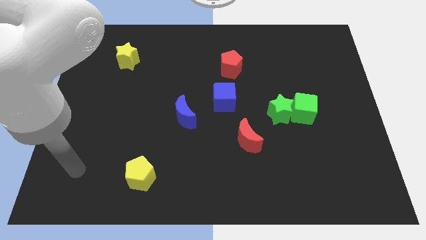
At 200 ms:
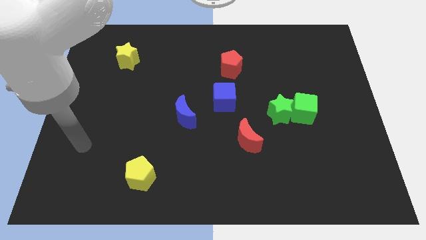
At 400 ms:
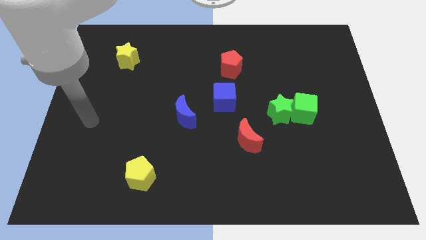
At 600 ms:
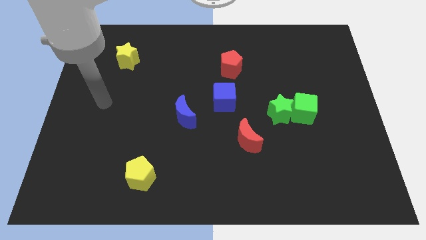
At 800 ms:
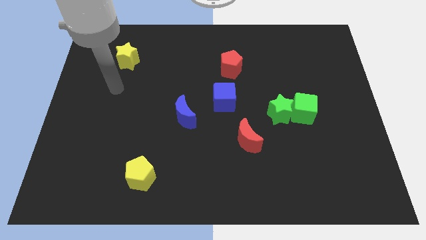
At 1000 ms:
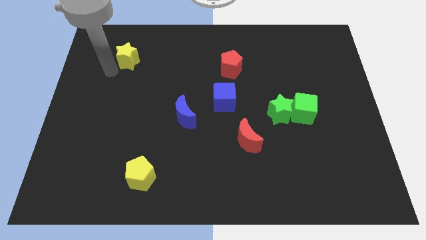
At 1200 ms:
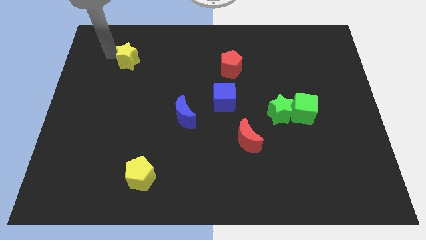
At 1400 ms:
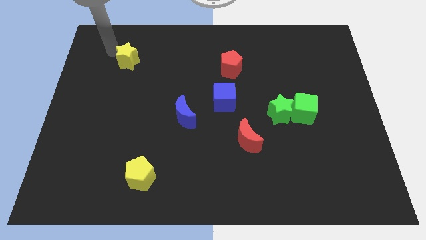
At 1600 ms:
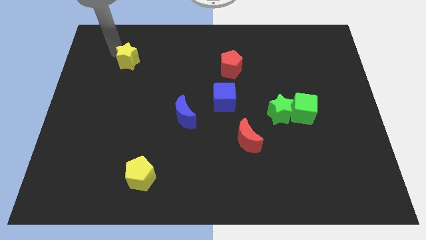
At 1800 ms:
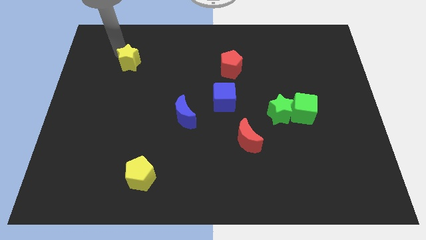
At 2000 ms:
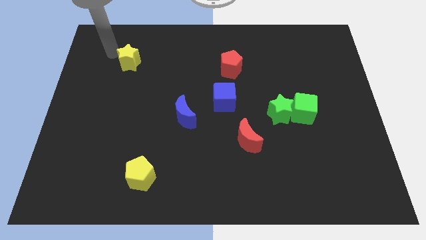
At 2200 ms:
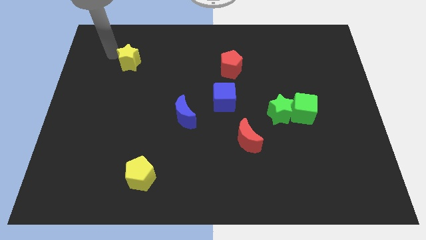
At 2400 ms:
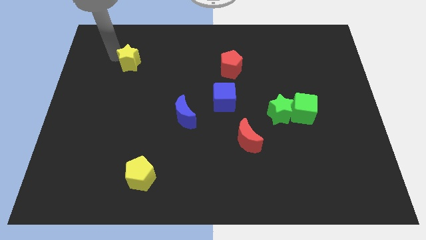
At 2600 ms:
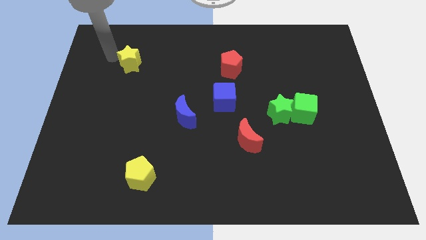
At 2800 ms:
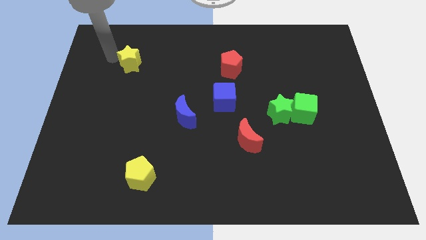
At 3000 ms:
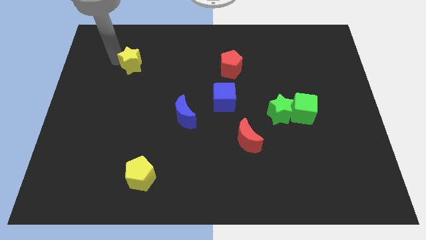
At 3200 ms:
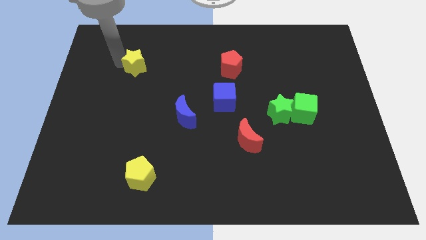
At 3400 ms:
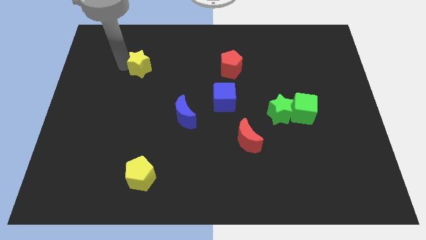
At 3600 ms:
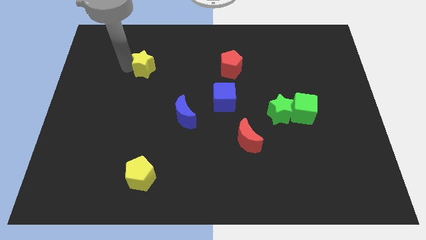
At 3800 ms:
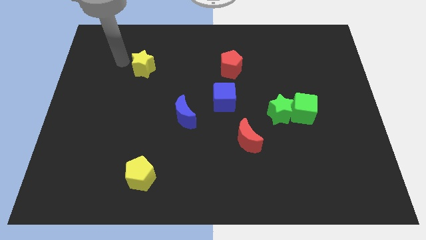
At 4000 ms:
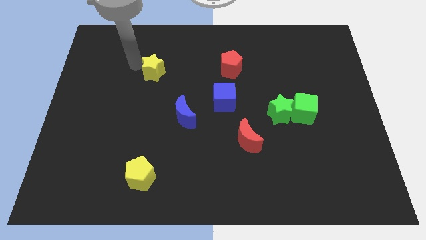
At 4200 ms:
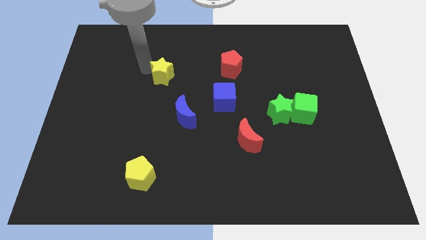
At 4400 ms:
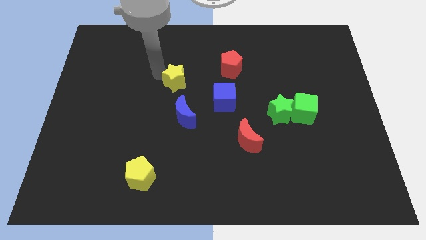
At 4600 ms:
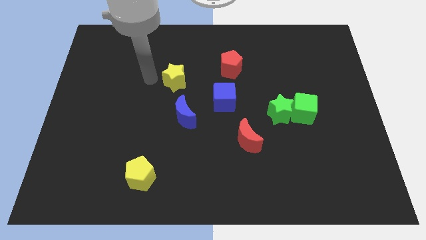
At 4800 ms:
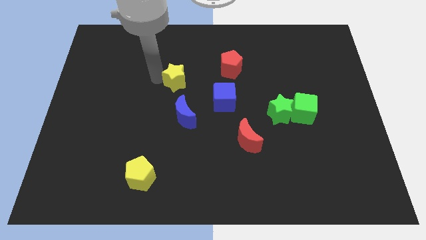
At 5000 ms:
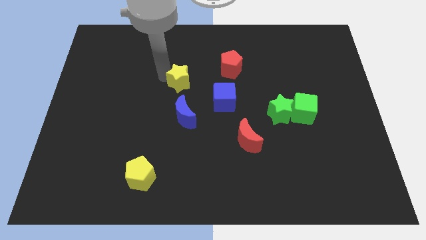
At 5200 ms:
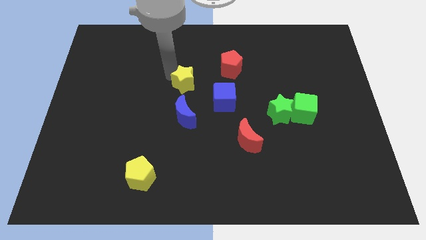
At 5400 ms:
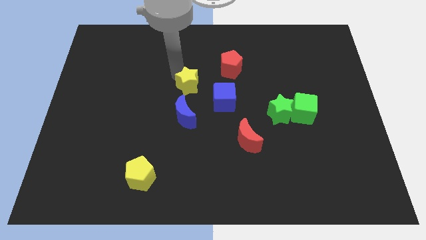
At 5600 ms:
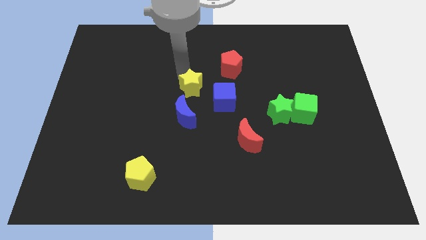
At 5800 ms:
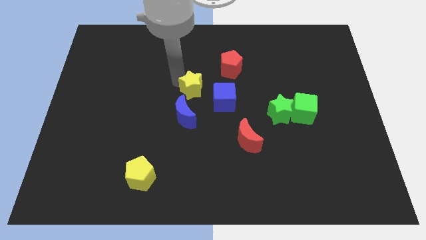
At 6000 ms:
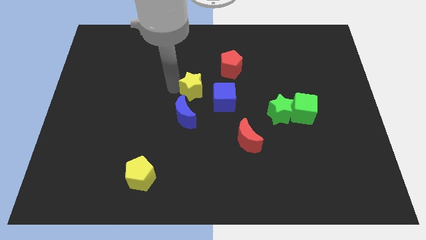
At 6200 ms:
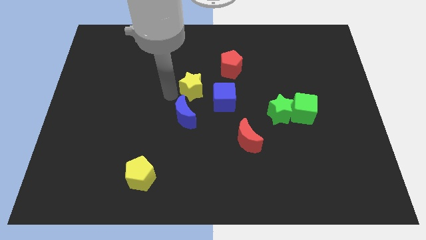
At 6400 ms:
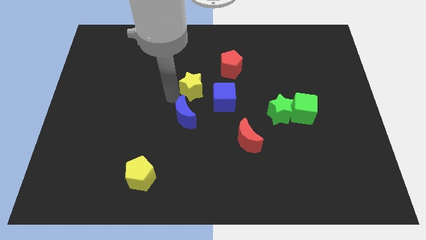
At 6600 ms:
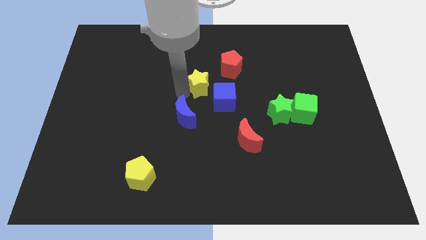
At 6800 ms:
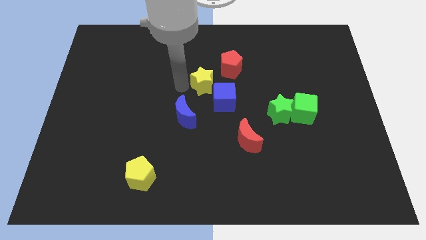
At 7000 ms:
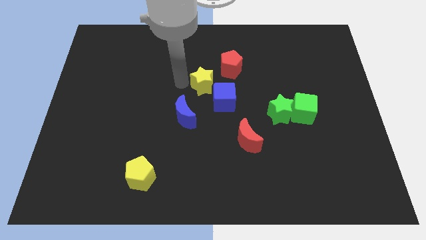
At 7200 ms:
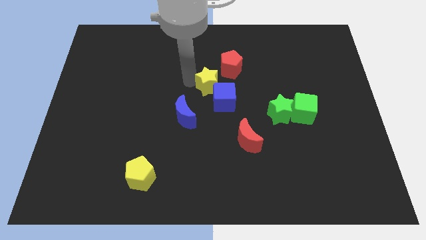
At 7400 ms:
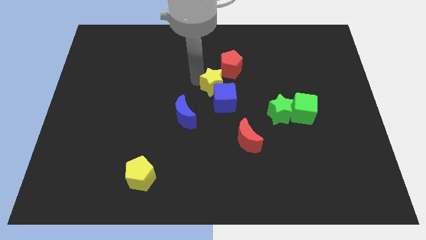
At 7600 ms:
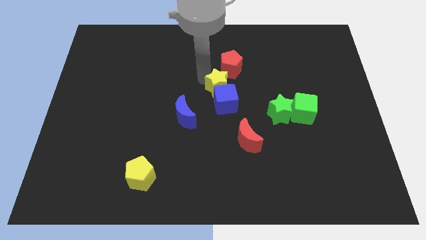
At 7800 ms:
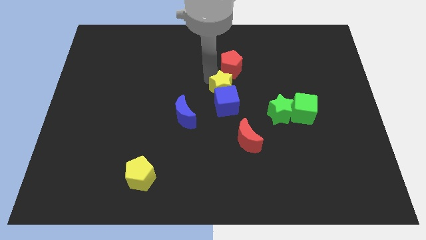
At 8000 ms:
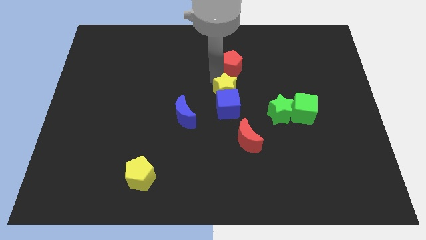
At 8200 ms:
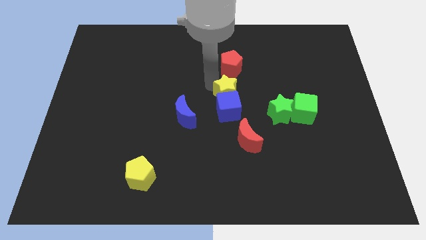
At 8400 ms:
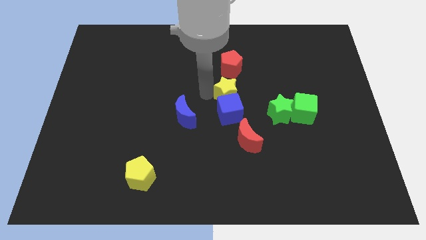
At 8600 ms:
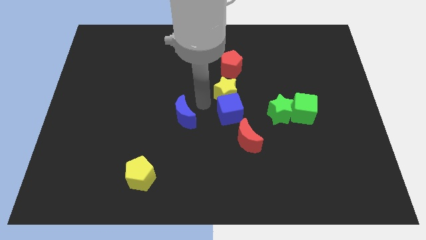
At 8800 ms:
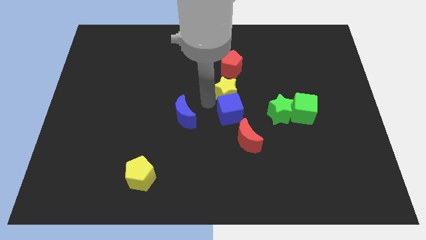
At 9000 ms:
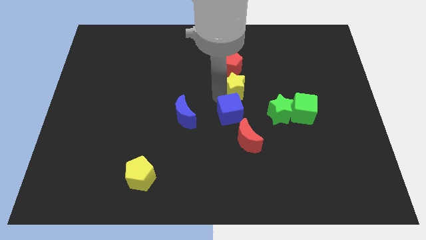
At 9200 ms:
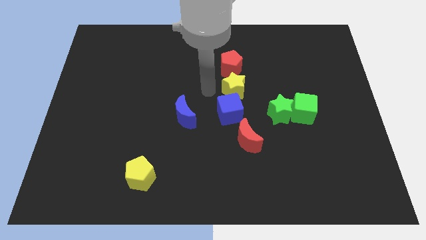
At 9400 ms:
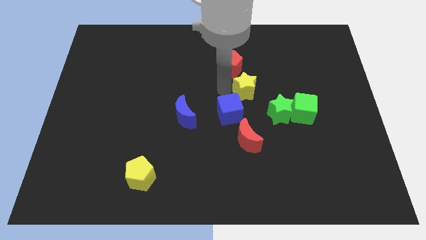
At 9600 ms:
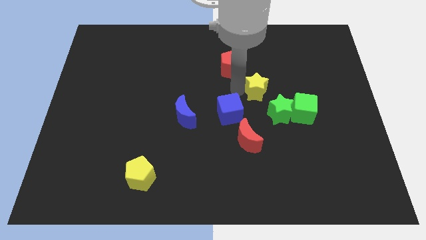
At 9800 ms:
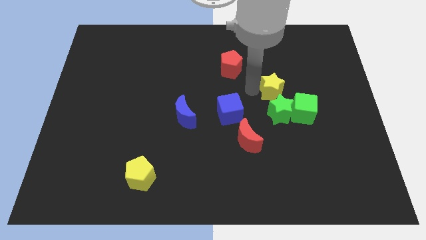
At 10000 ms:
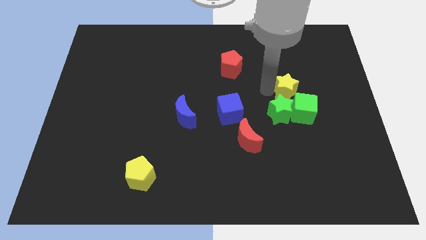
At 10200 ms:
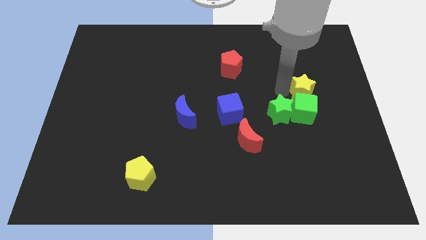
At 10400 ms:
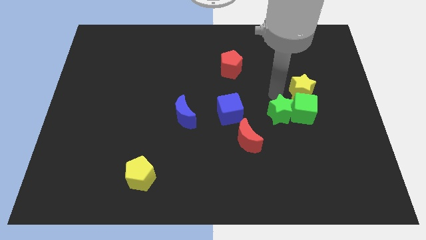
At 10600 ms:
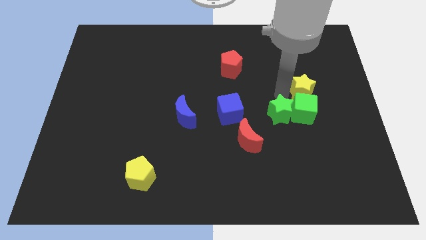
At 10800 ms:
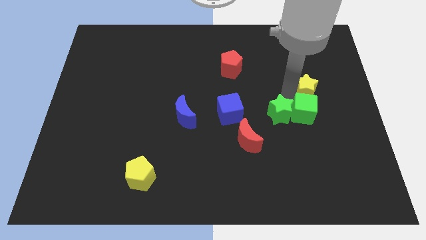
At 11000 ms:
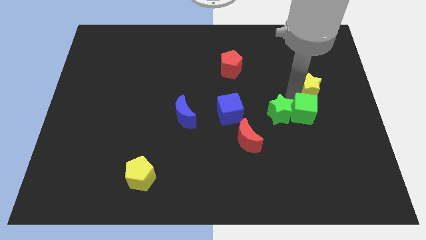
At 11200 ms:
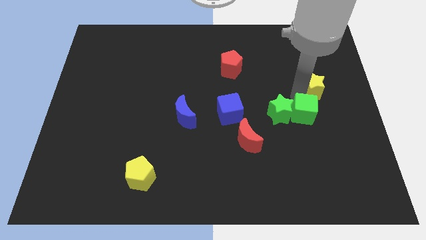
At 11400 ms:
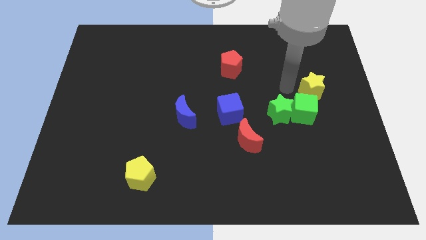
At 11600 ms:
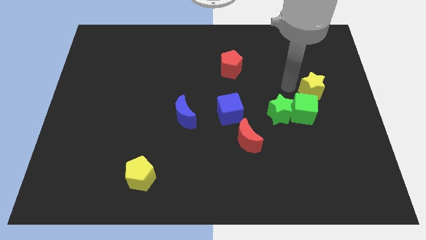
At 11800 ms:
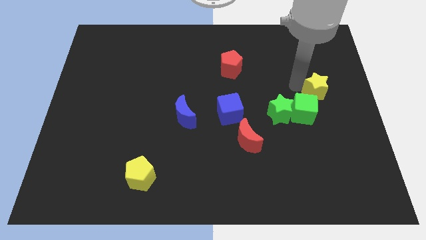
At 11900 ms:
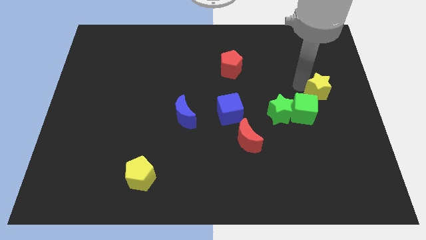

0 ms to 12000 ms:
push the yellow star to the right side of the board

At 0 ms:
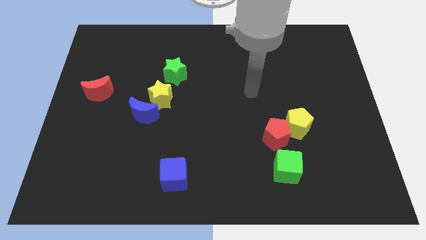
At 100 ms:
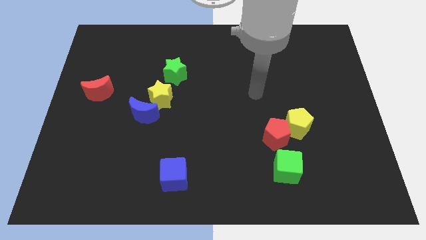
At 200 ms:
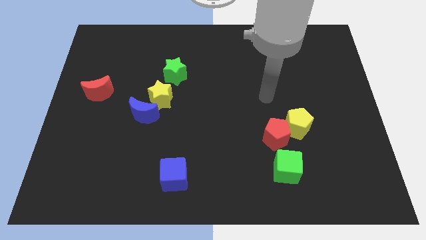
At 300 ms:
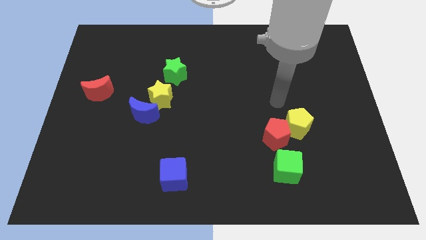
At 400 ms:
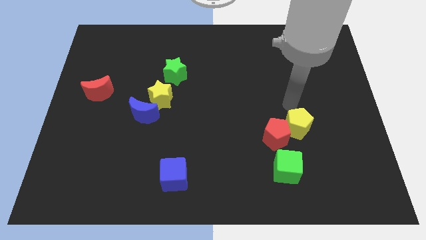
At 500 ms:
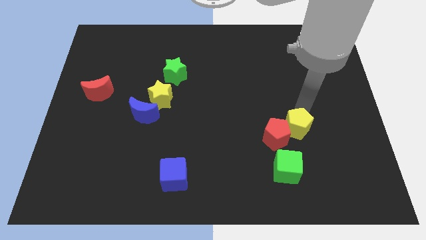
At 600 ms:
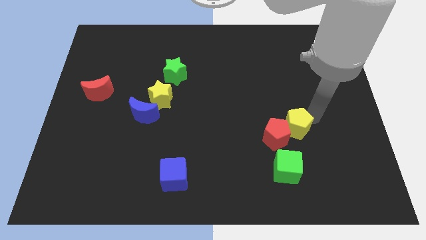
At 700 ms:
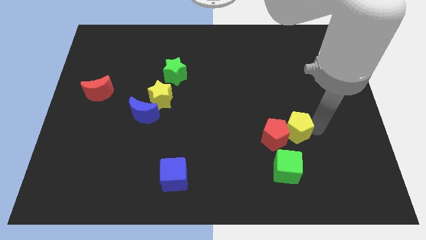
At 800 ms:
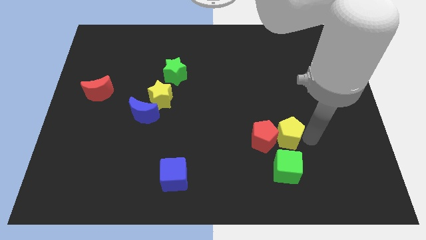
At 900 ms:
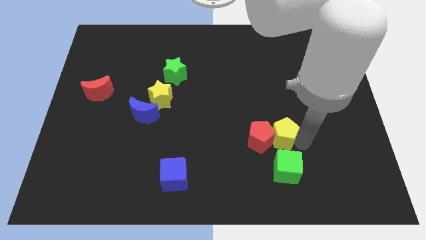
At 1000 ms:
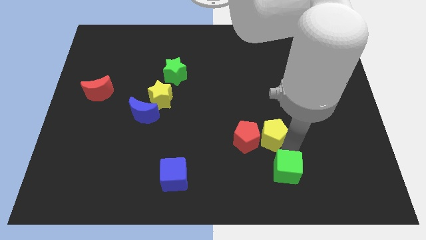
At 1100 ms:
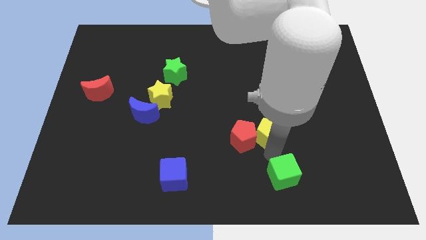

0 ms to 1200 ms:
push the red pentagon to the center
